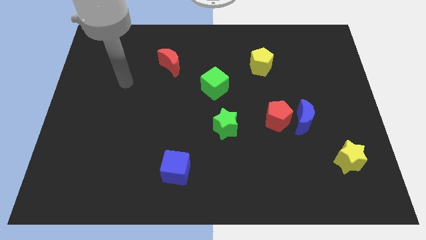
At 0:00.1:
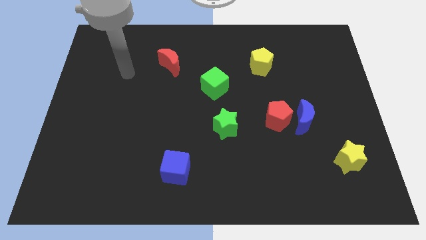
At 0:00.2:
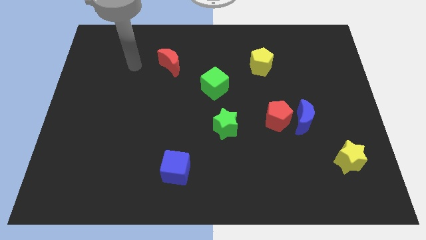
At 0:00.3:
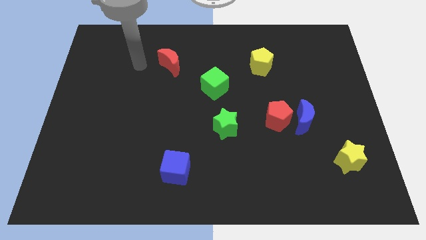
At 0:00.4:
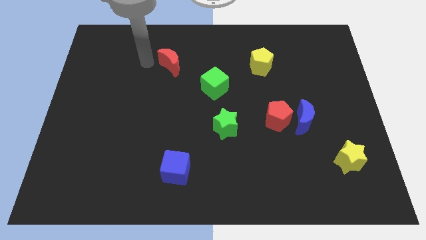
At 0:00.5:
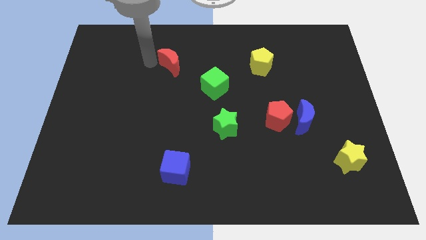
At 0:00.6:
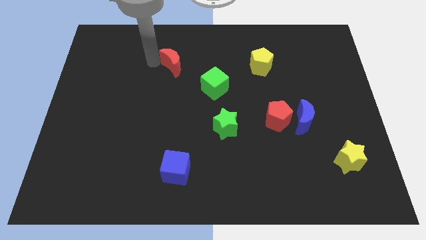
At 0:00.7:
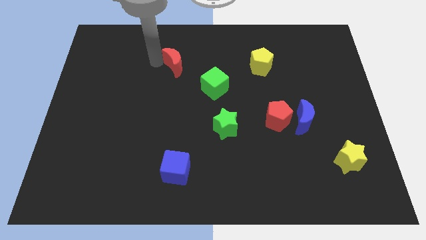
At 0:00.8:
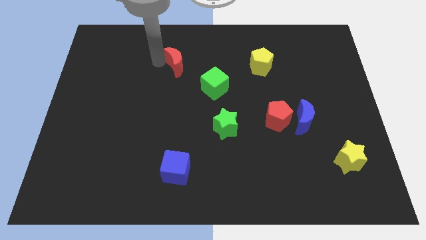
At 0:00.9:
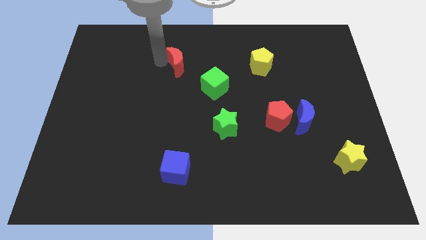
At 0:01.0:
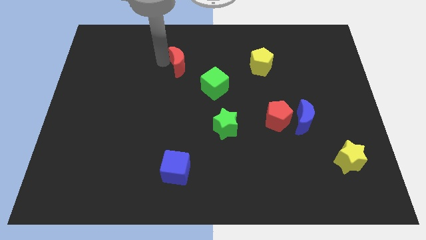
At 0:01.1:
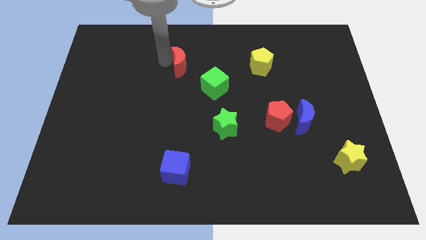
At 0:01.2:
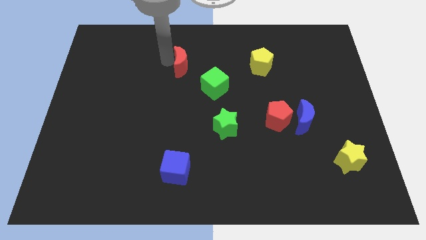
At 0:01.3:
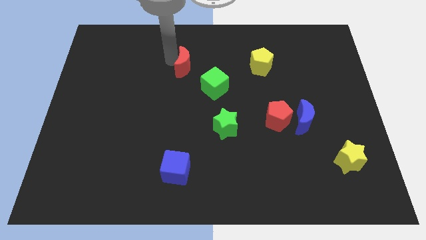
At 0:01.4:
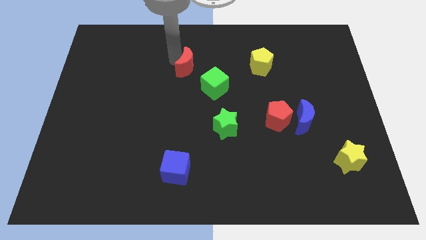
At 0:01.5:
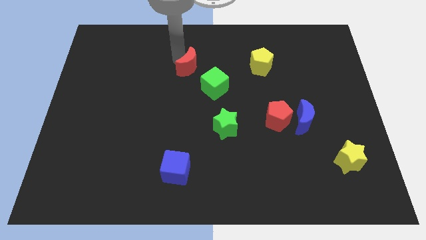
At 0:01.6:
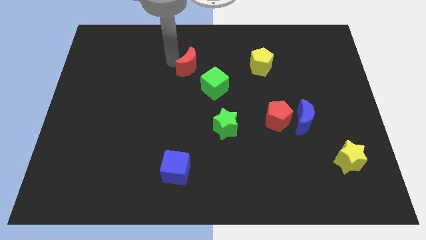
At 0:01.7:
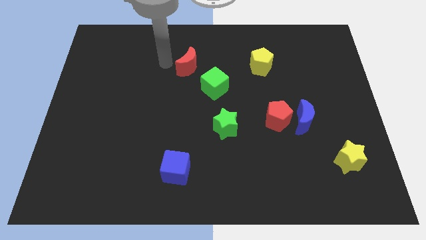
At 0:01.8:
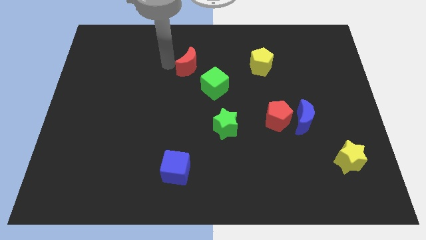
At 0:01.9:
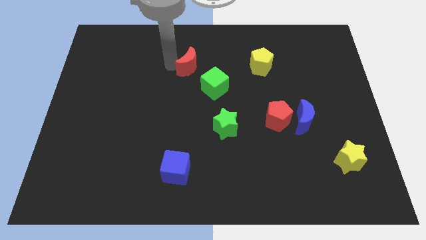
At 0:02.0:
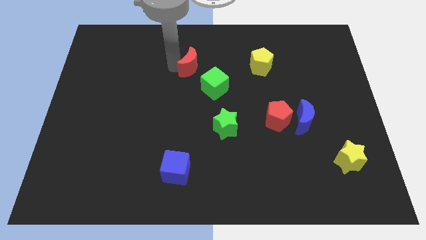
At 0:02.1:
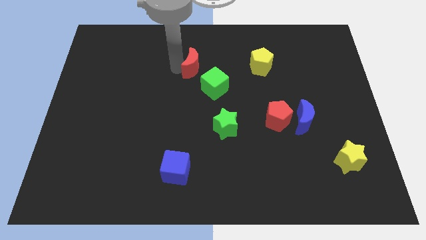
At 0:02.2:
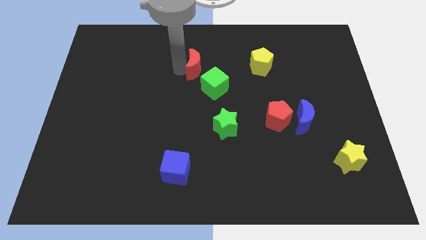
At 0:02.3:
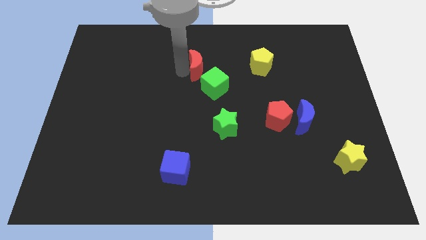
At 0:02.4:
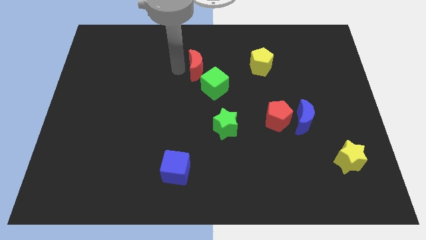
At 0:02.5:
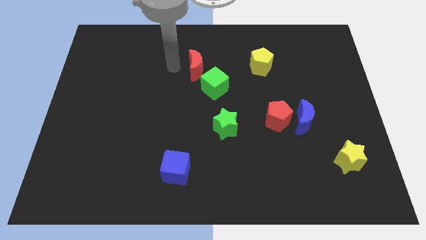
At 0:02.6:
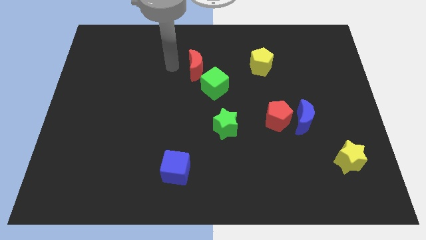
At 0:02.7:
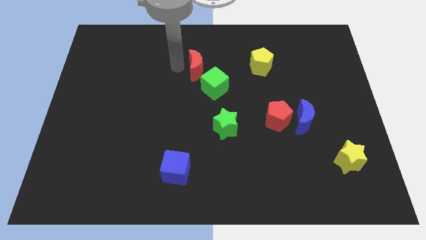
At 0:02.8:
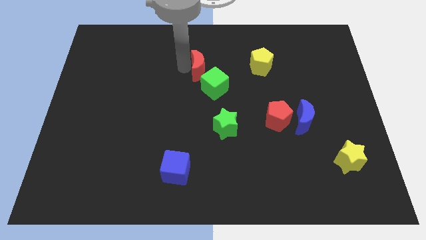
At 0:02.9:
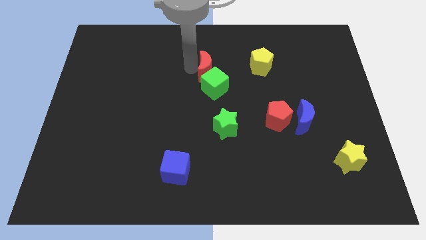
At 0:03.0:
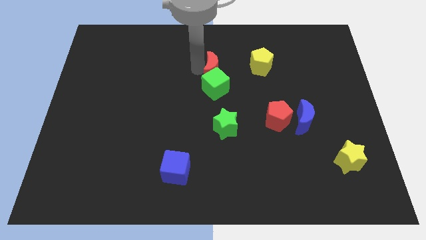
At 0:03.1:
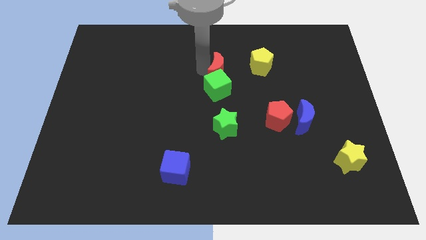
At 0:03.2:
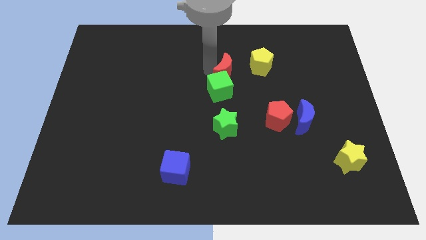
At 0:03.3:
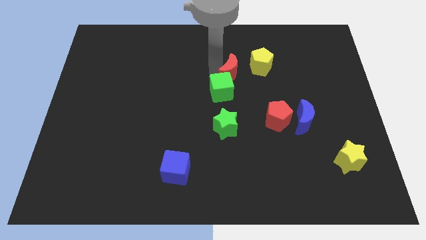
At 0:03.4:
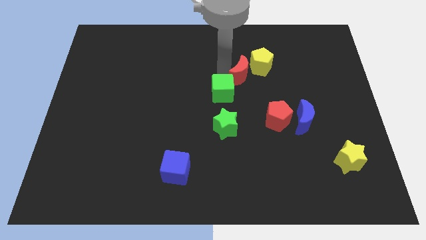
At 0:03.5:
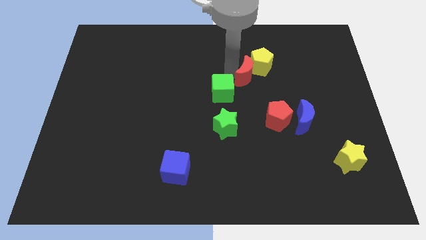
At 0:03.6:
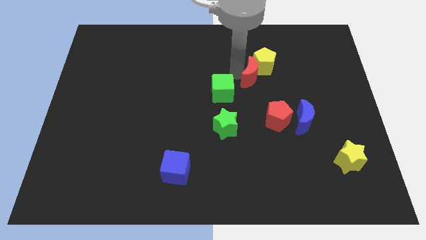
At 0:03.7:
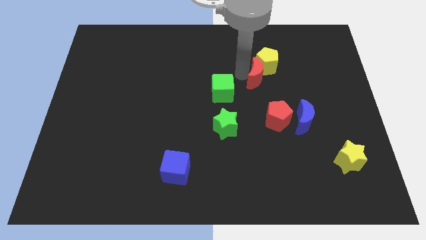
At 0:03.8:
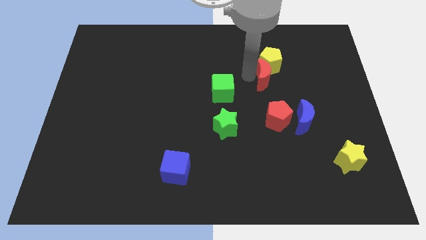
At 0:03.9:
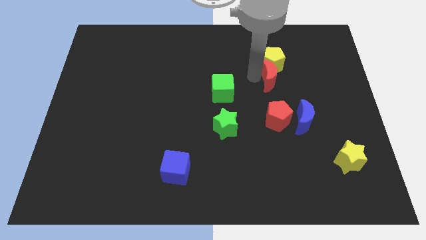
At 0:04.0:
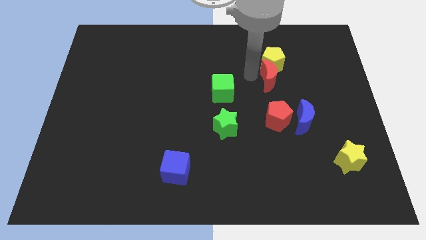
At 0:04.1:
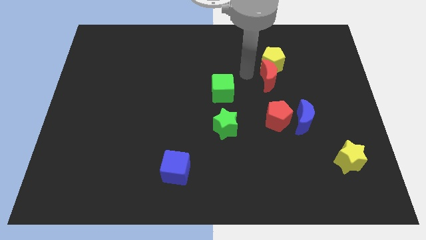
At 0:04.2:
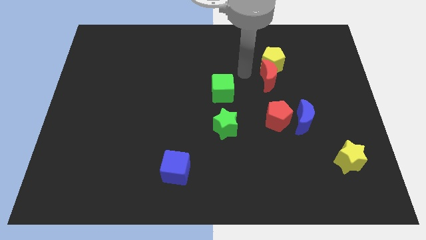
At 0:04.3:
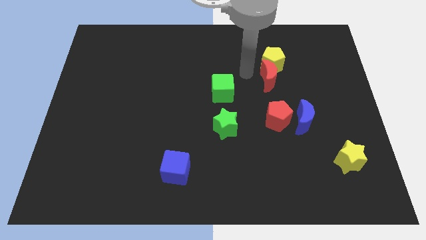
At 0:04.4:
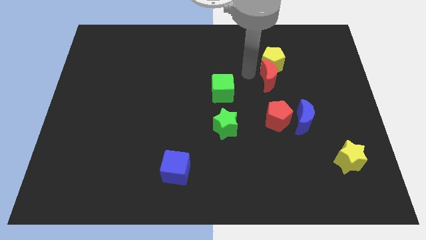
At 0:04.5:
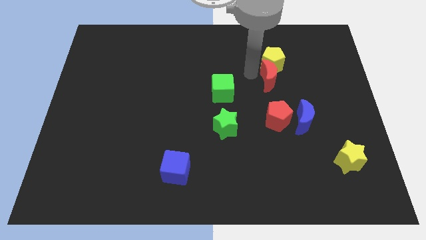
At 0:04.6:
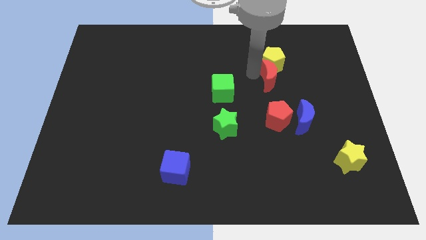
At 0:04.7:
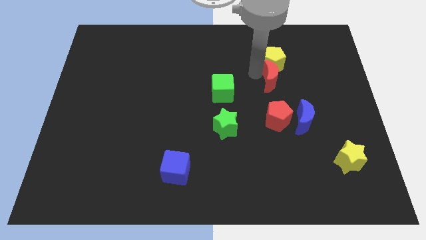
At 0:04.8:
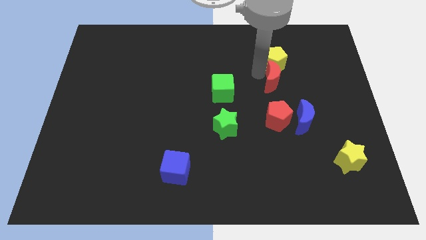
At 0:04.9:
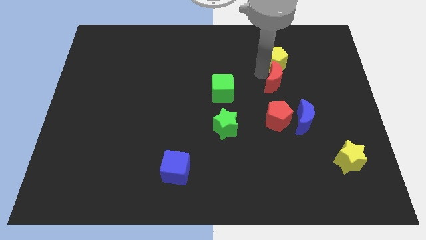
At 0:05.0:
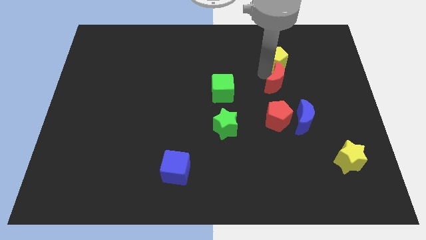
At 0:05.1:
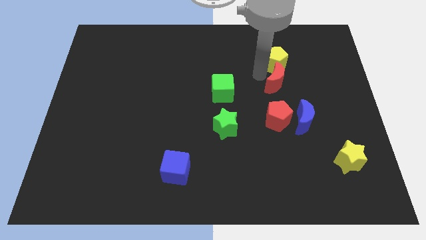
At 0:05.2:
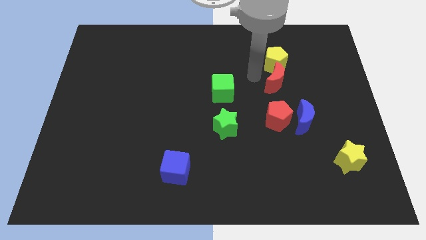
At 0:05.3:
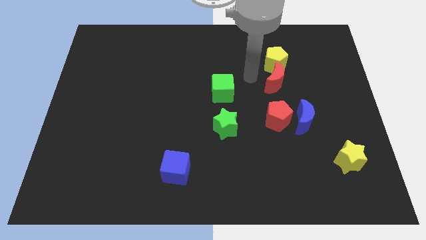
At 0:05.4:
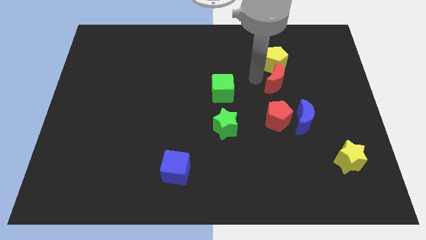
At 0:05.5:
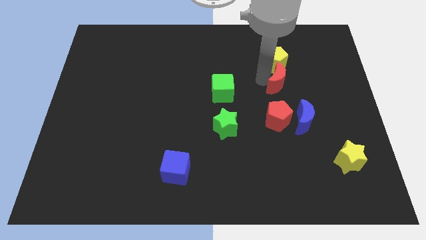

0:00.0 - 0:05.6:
move the red moon to the top of the blue moon

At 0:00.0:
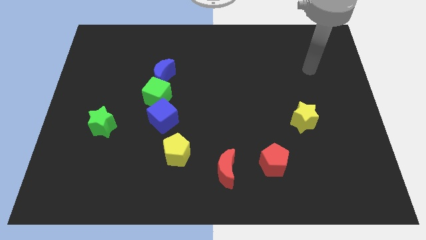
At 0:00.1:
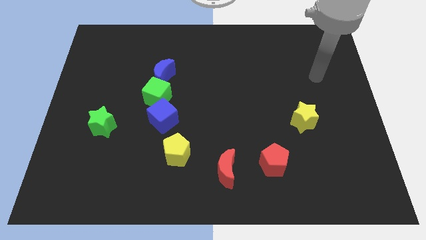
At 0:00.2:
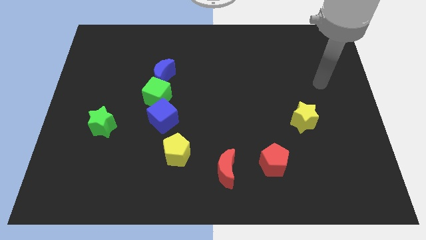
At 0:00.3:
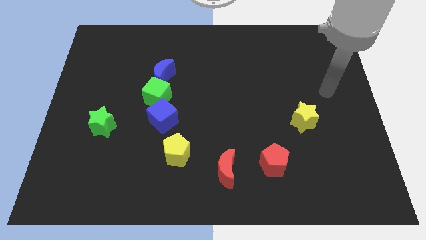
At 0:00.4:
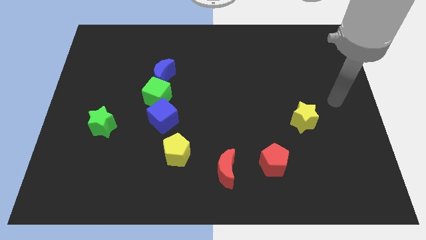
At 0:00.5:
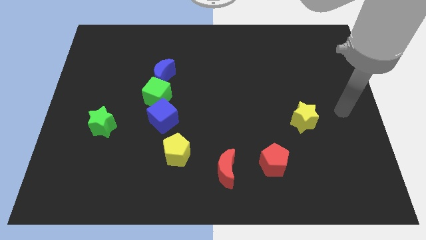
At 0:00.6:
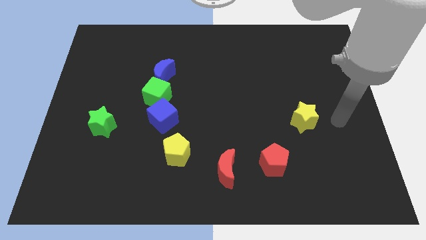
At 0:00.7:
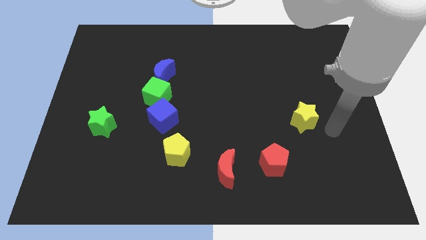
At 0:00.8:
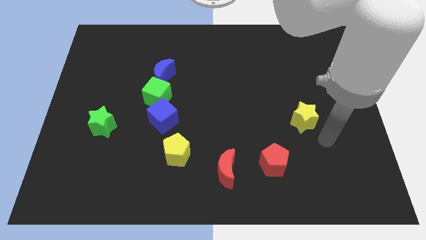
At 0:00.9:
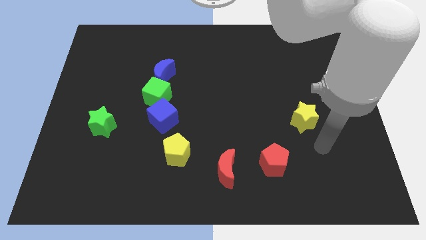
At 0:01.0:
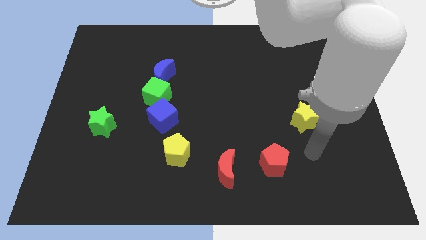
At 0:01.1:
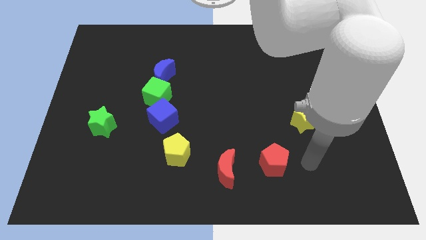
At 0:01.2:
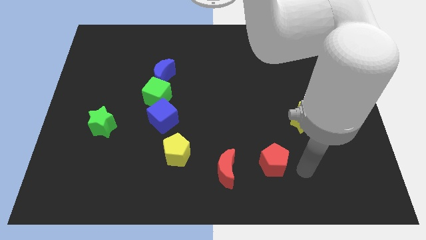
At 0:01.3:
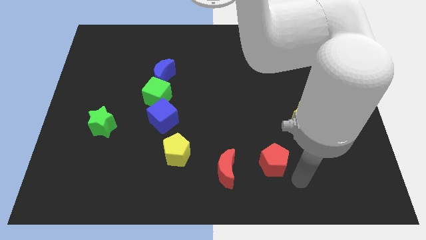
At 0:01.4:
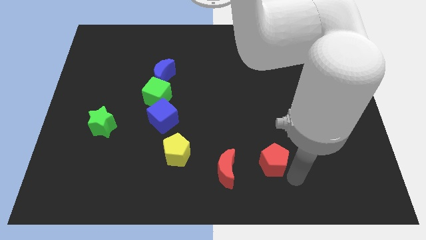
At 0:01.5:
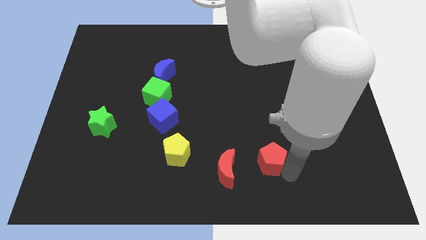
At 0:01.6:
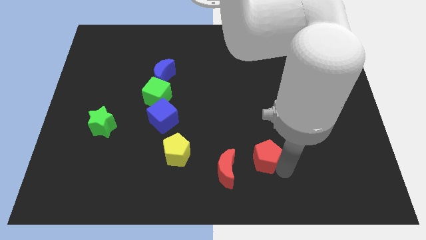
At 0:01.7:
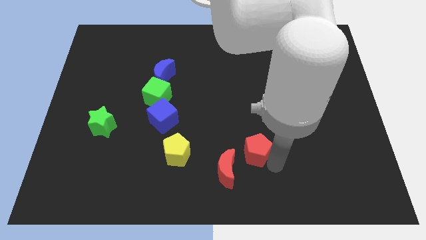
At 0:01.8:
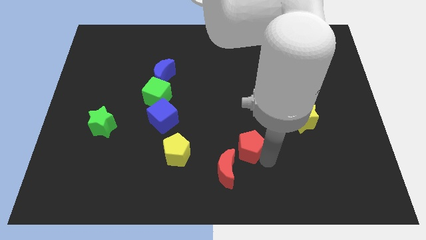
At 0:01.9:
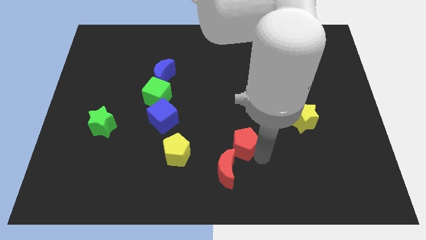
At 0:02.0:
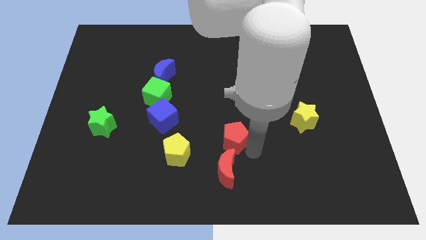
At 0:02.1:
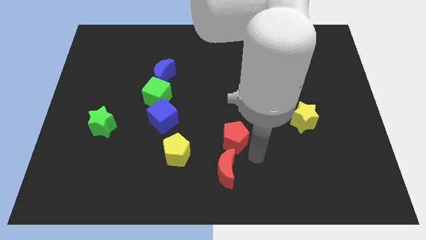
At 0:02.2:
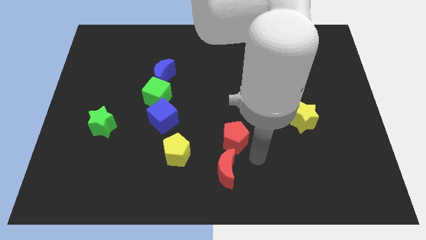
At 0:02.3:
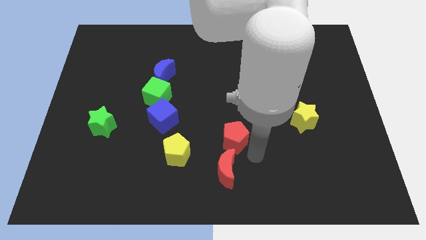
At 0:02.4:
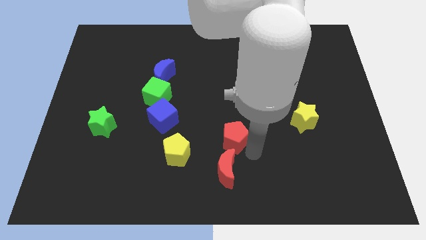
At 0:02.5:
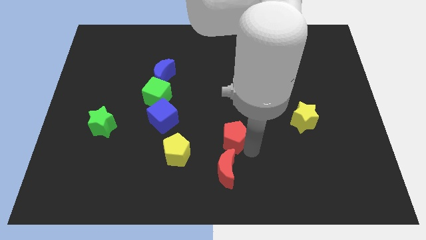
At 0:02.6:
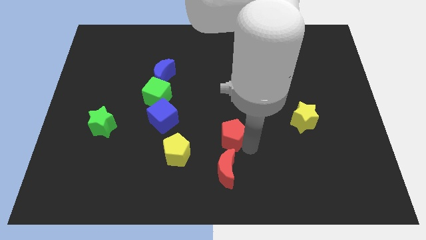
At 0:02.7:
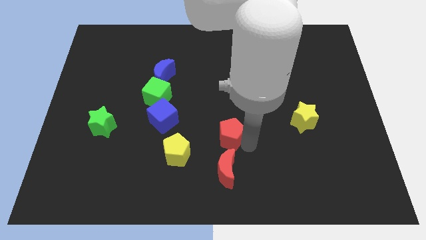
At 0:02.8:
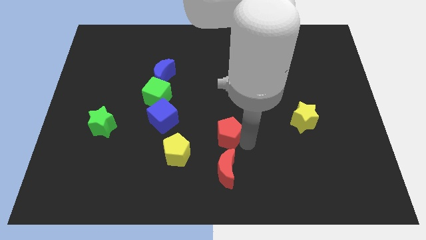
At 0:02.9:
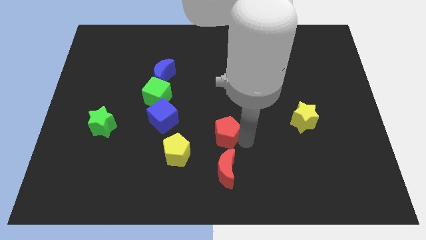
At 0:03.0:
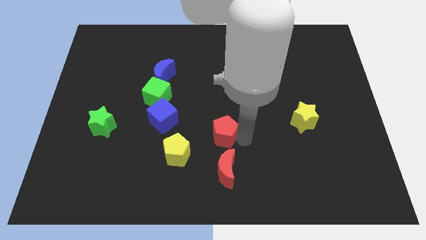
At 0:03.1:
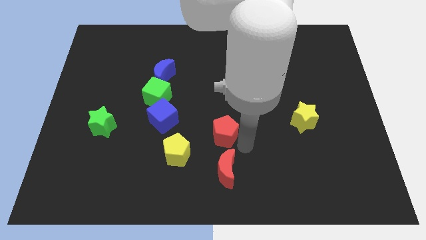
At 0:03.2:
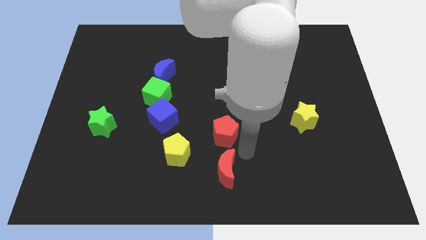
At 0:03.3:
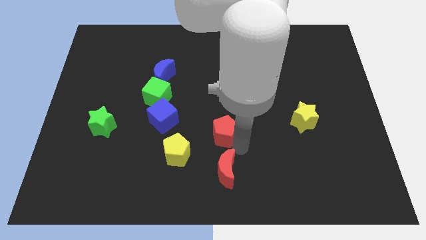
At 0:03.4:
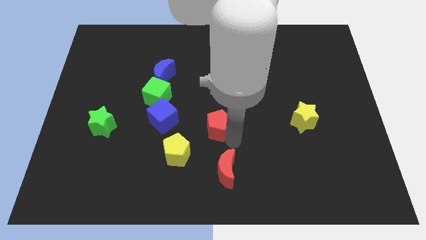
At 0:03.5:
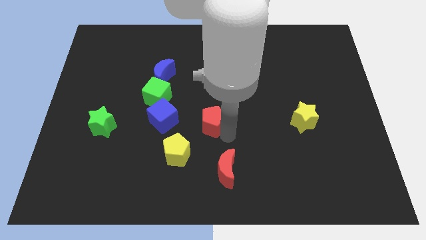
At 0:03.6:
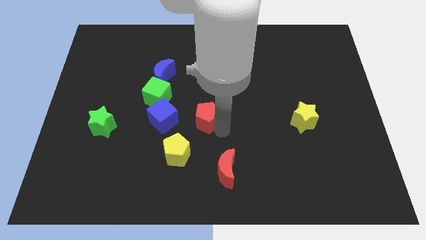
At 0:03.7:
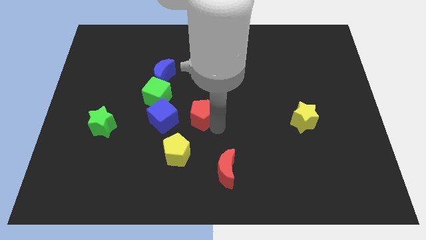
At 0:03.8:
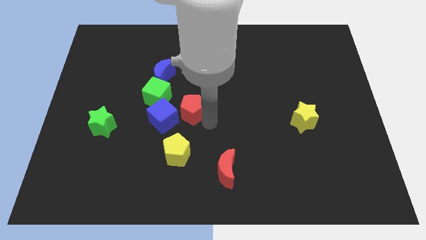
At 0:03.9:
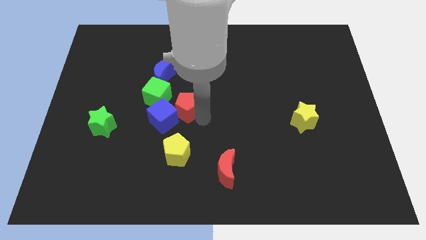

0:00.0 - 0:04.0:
push the red pentagon to the bottom right side of the blue moon
